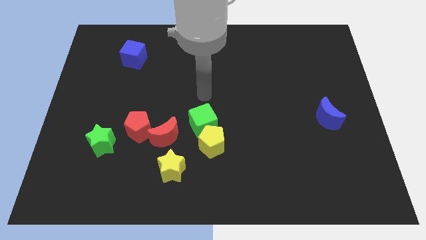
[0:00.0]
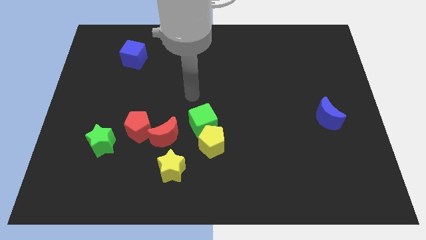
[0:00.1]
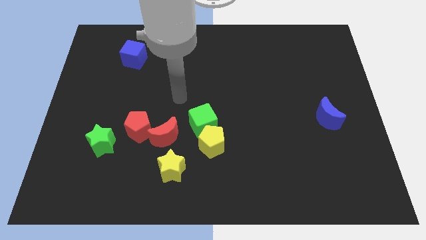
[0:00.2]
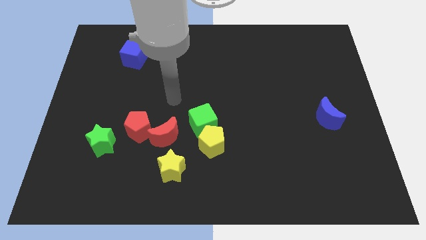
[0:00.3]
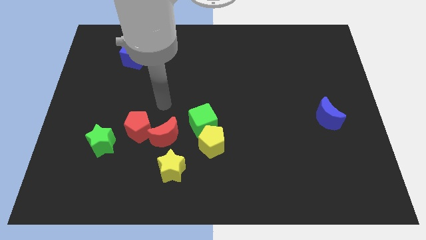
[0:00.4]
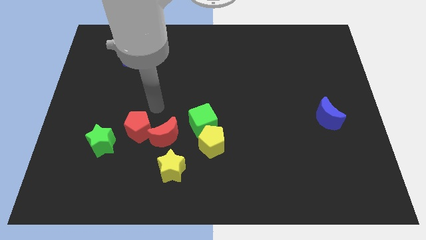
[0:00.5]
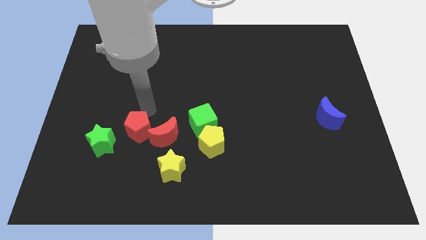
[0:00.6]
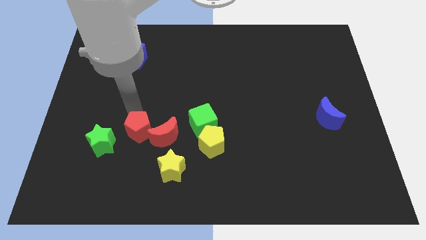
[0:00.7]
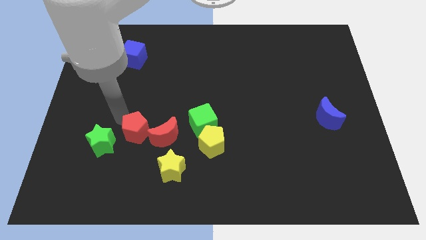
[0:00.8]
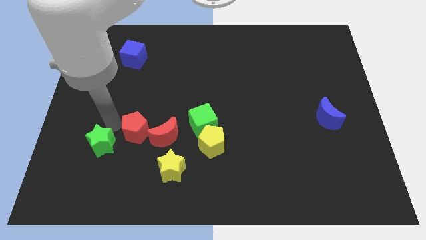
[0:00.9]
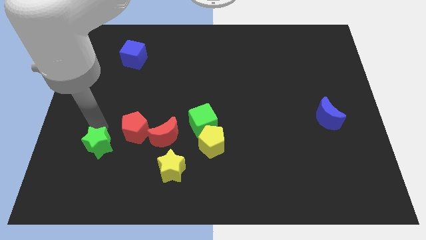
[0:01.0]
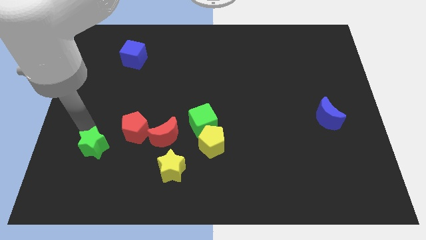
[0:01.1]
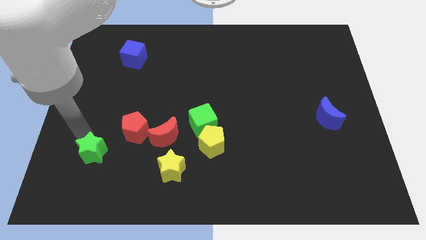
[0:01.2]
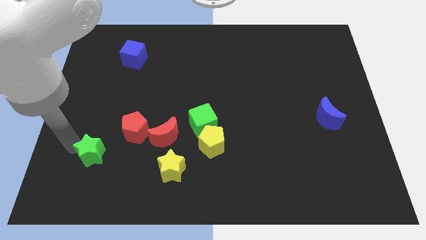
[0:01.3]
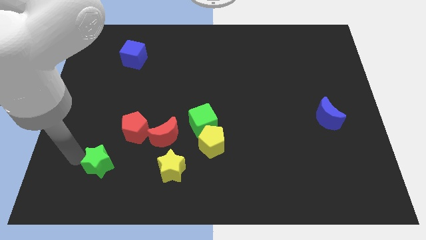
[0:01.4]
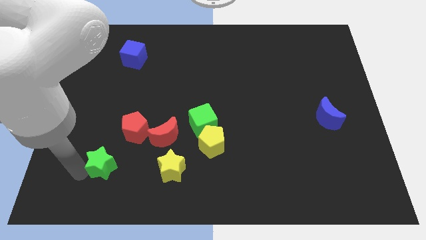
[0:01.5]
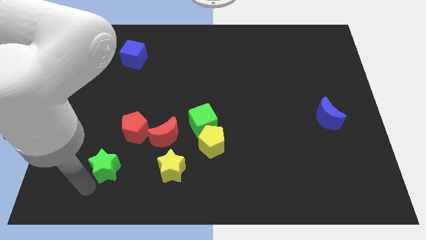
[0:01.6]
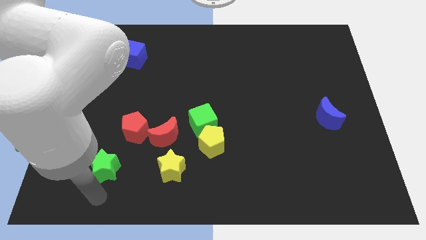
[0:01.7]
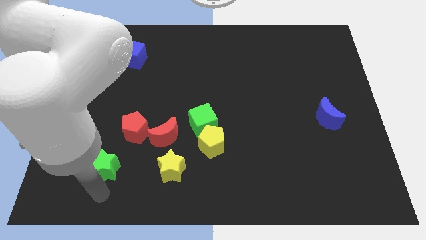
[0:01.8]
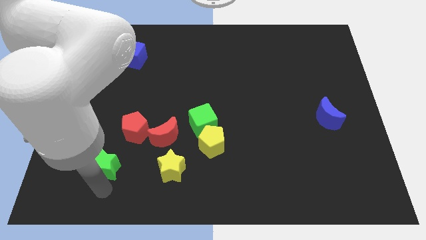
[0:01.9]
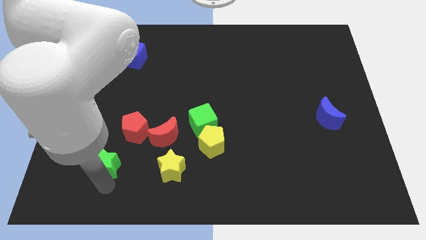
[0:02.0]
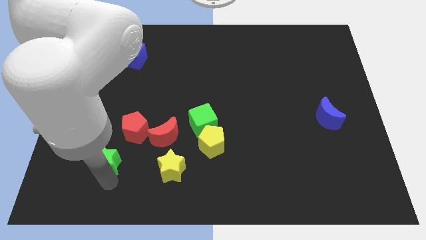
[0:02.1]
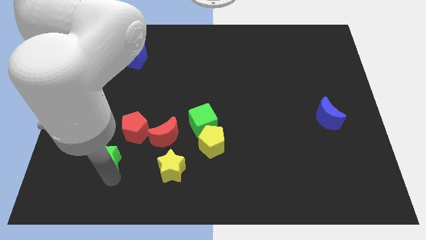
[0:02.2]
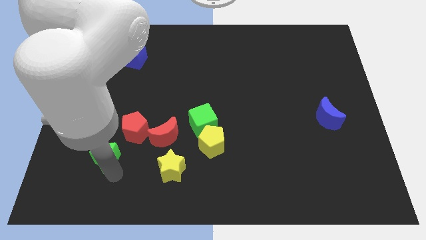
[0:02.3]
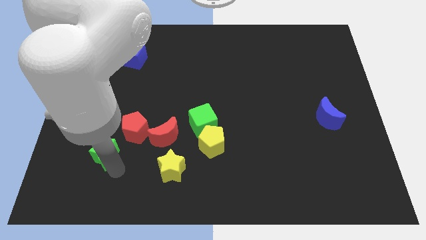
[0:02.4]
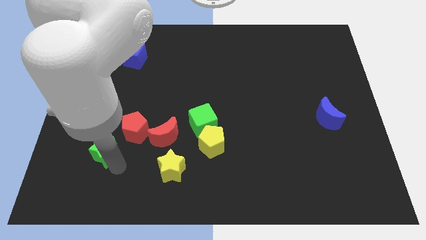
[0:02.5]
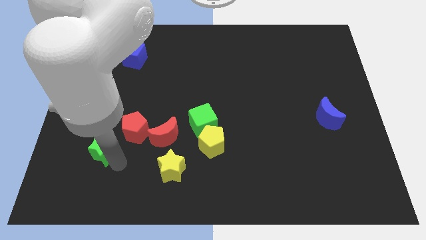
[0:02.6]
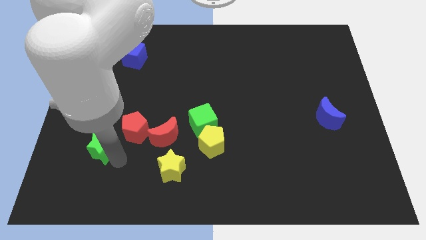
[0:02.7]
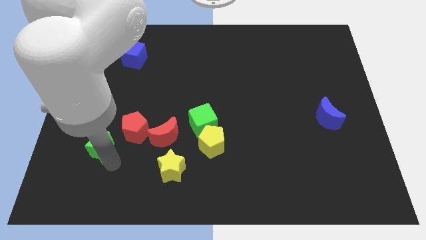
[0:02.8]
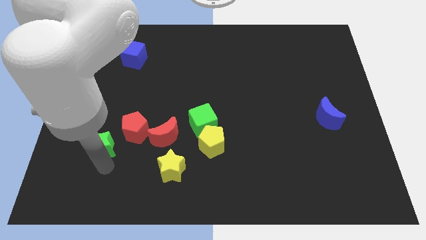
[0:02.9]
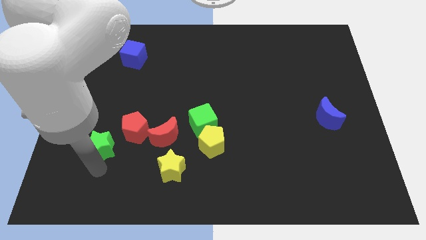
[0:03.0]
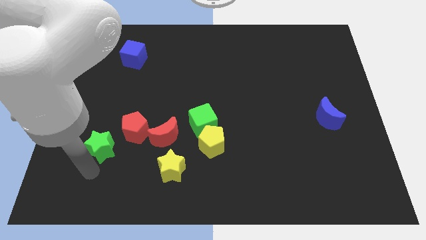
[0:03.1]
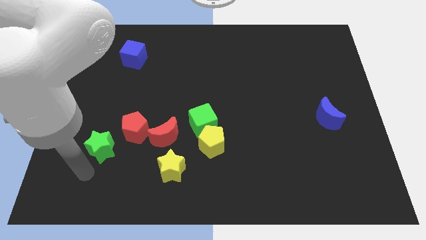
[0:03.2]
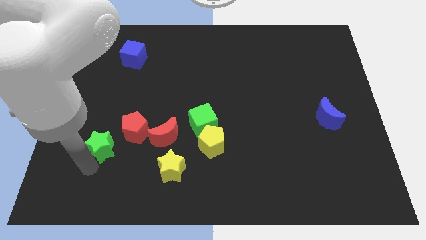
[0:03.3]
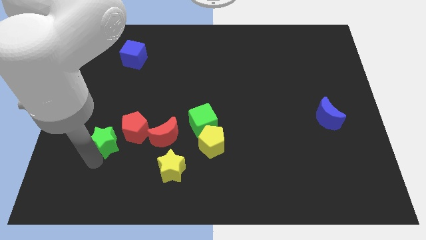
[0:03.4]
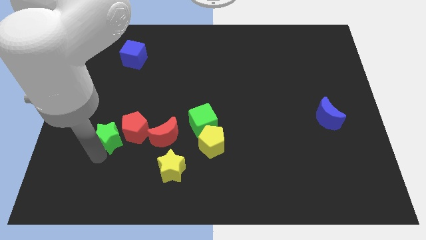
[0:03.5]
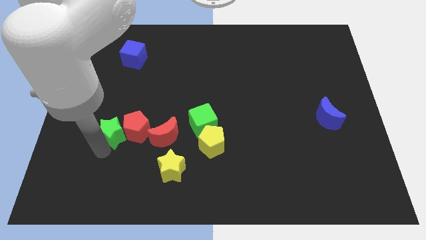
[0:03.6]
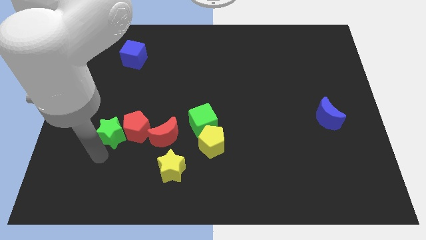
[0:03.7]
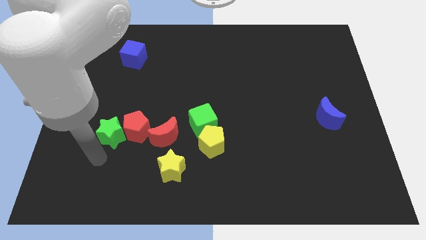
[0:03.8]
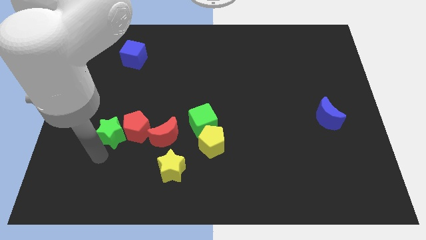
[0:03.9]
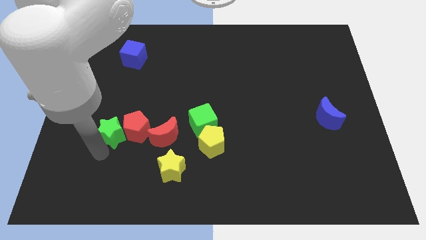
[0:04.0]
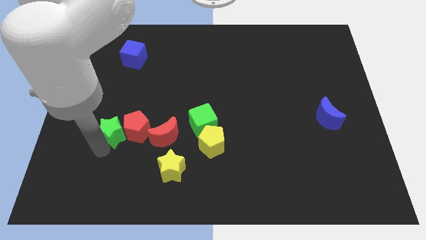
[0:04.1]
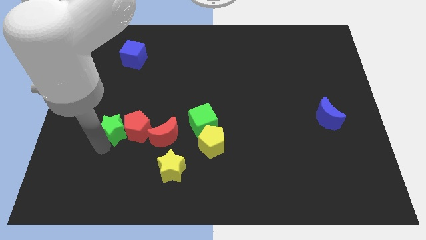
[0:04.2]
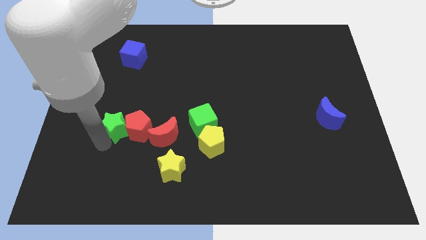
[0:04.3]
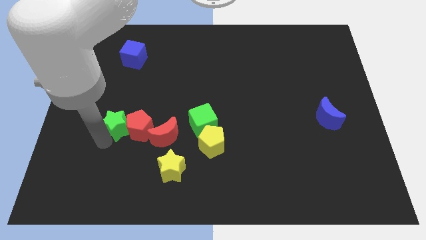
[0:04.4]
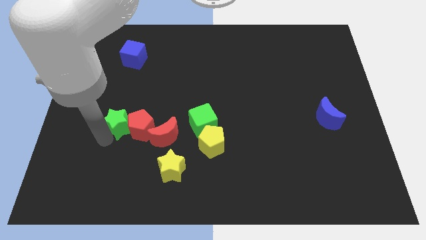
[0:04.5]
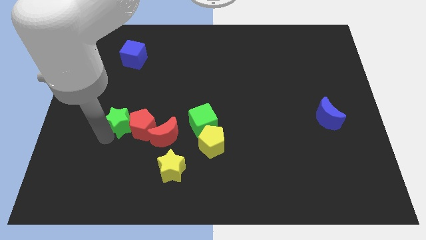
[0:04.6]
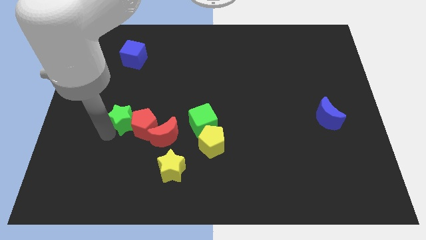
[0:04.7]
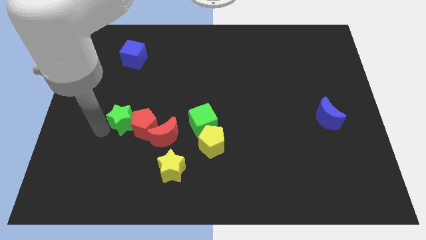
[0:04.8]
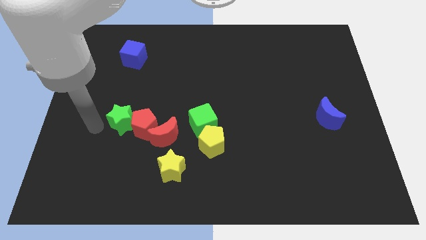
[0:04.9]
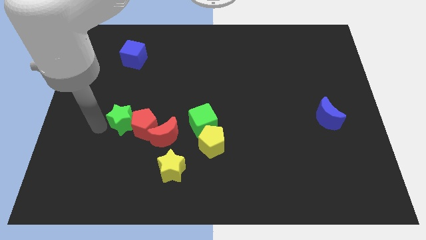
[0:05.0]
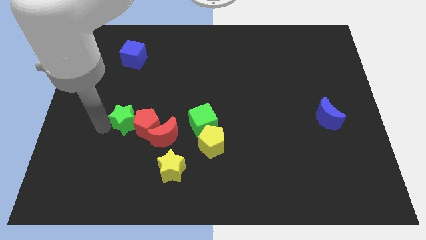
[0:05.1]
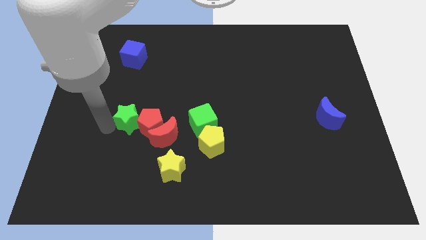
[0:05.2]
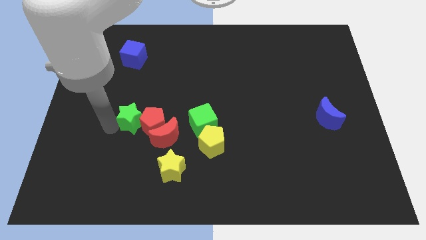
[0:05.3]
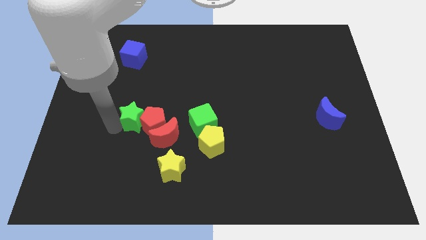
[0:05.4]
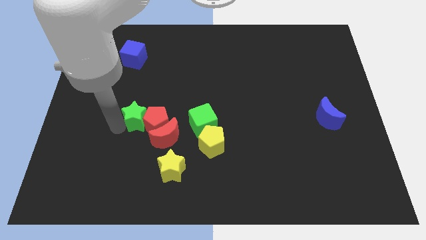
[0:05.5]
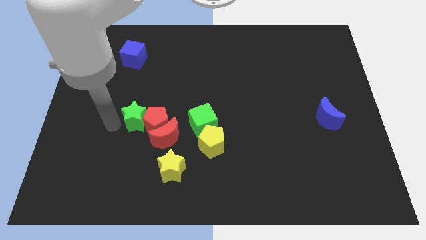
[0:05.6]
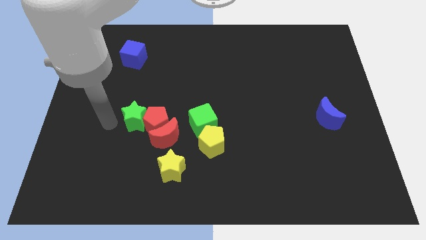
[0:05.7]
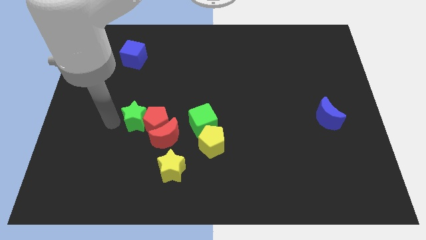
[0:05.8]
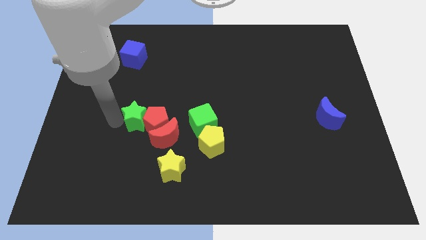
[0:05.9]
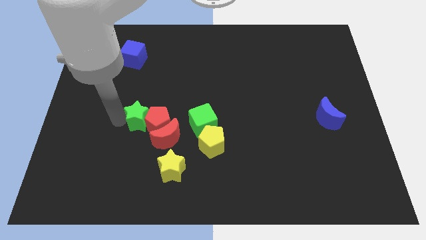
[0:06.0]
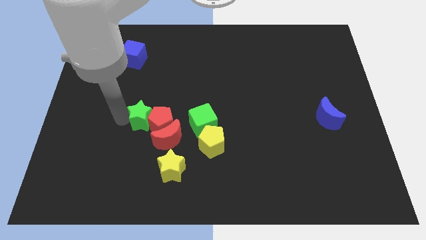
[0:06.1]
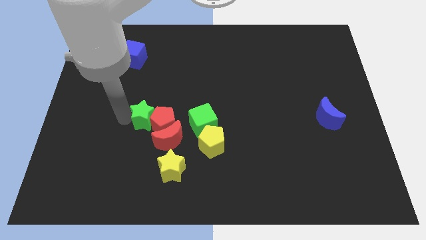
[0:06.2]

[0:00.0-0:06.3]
push the green star right somewhat

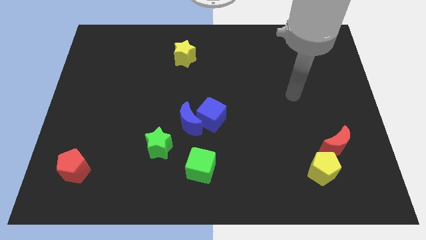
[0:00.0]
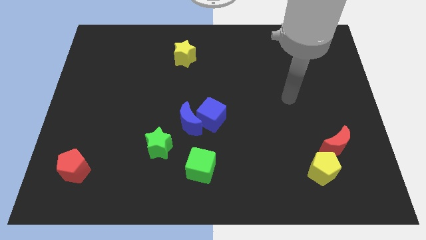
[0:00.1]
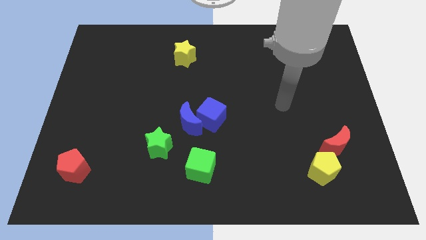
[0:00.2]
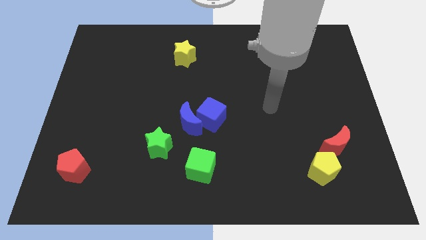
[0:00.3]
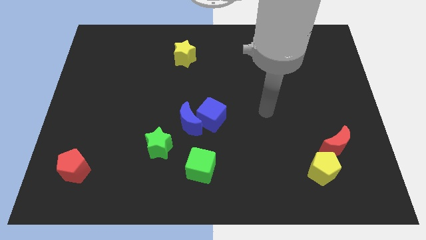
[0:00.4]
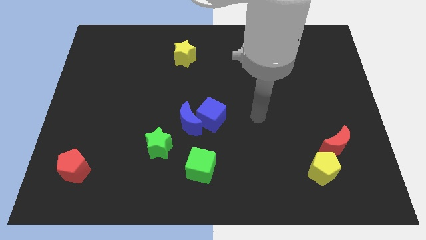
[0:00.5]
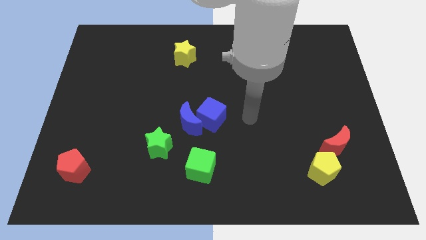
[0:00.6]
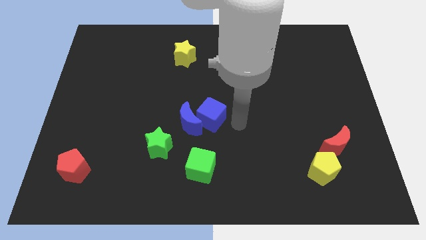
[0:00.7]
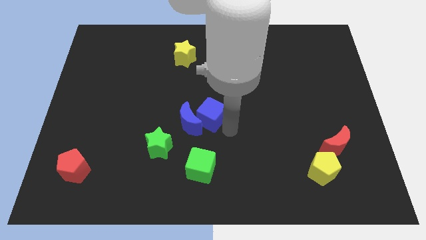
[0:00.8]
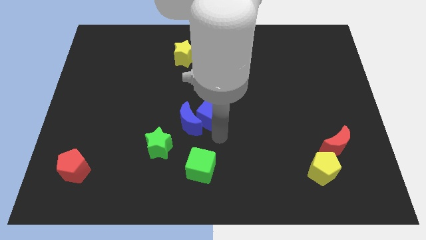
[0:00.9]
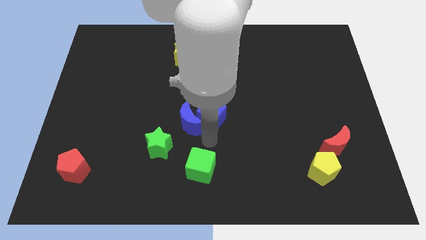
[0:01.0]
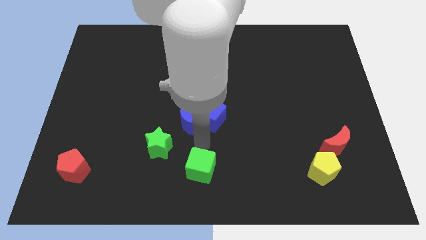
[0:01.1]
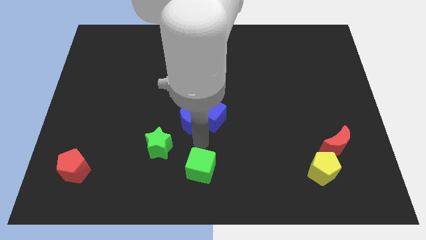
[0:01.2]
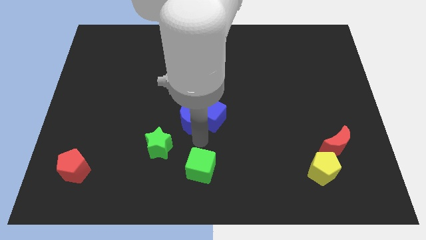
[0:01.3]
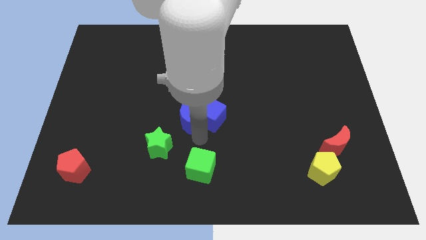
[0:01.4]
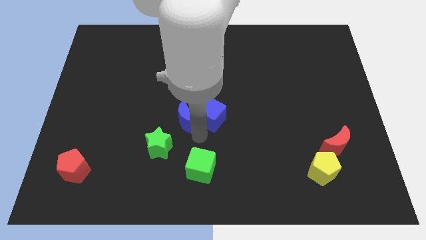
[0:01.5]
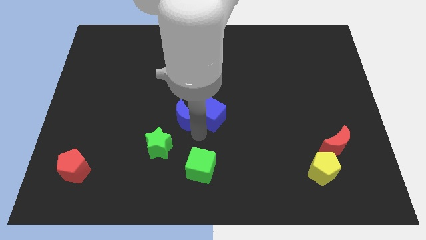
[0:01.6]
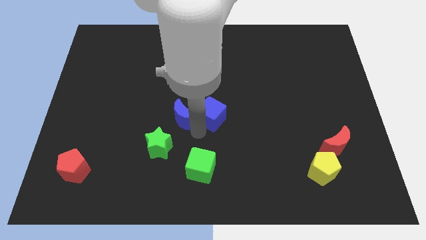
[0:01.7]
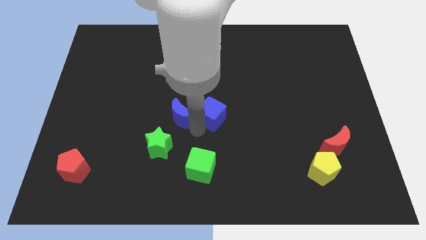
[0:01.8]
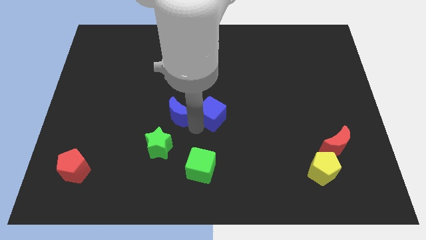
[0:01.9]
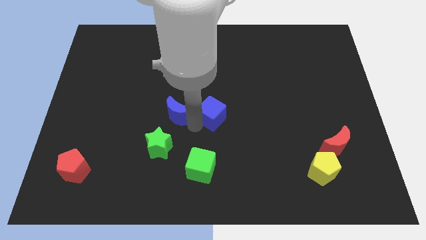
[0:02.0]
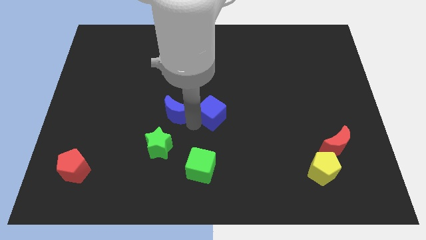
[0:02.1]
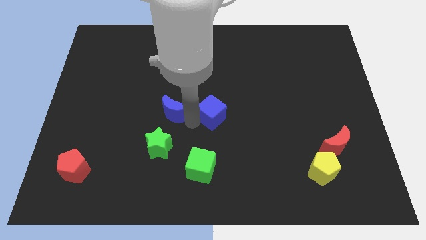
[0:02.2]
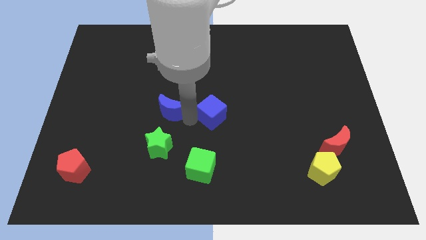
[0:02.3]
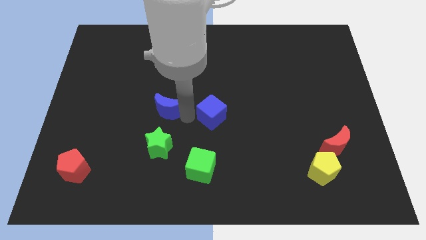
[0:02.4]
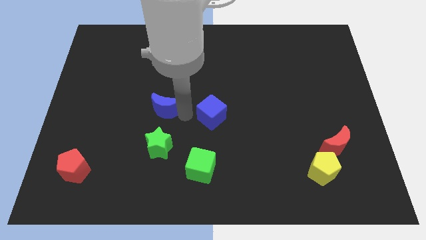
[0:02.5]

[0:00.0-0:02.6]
move the blue moon up and then to the left a little
